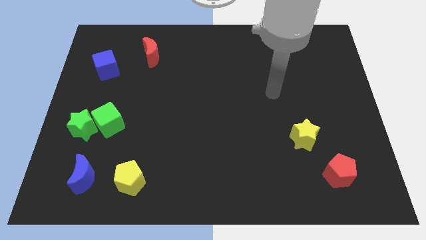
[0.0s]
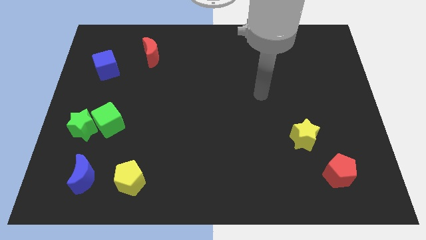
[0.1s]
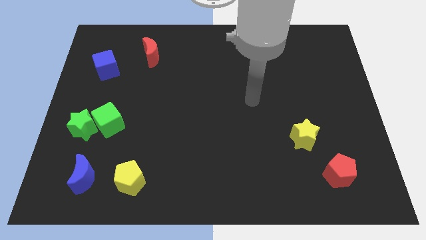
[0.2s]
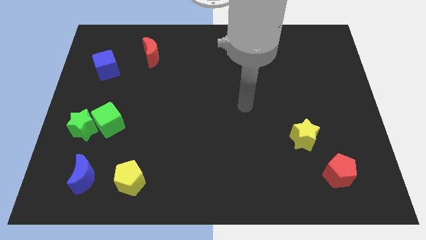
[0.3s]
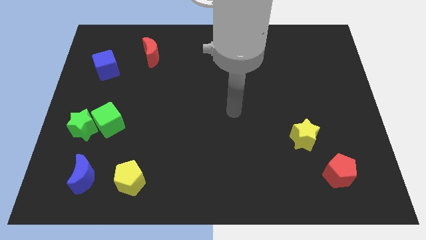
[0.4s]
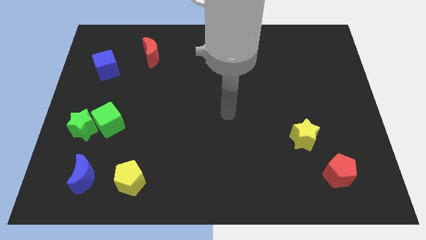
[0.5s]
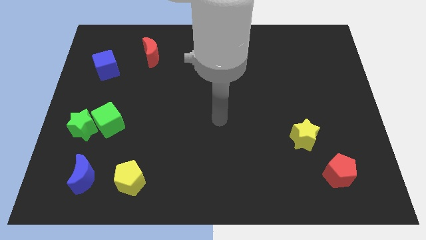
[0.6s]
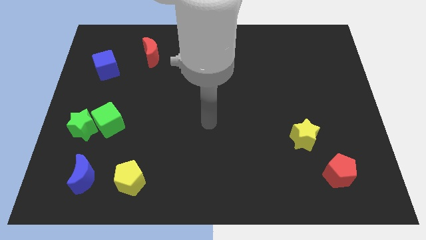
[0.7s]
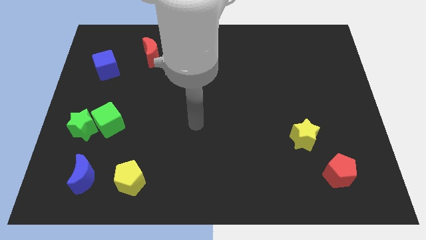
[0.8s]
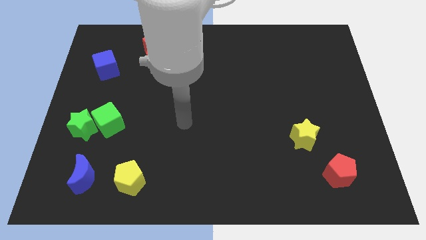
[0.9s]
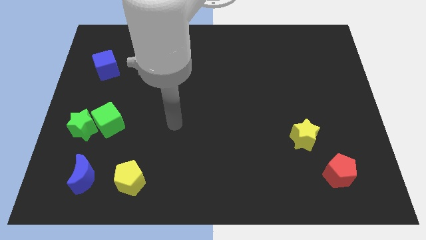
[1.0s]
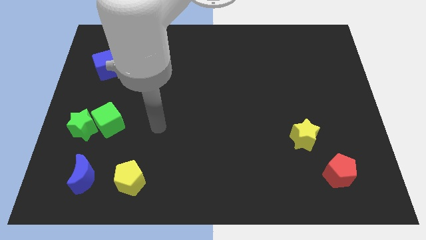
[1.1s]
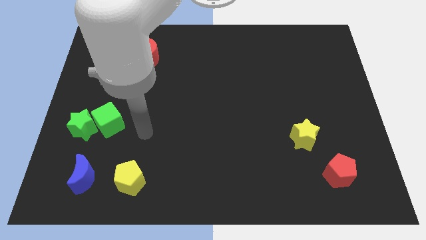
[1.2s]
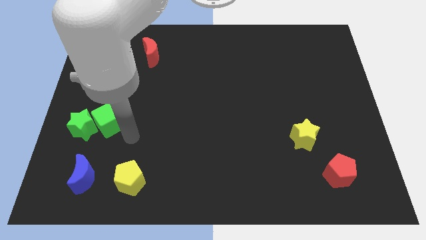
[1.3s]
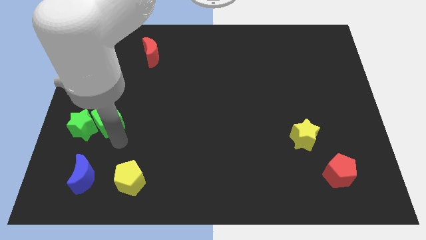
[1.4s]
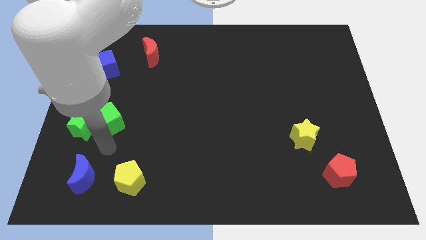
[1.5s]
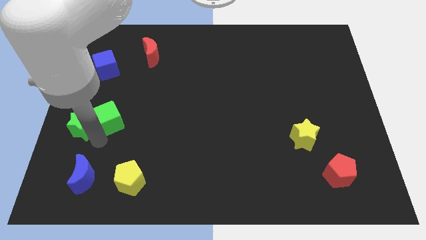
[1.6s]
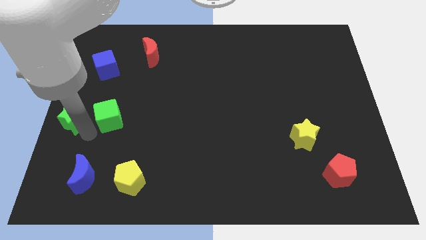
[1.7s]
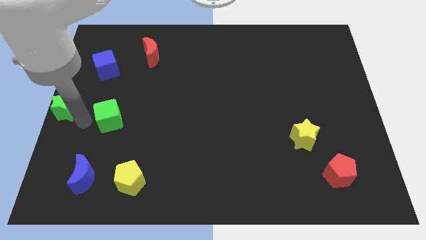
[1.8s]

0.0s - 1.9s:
separate the green cube from the green star

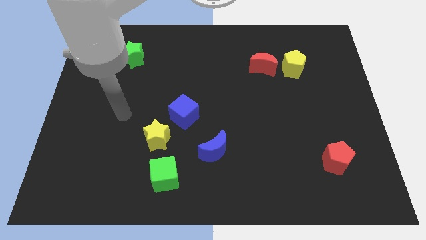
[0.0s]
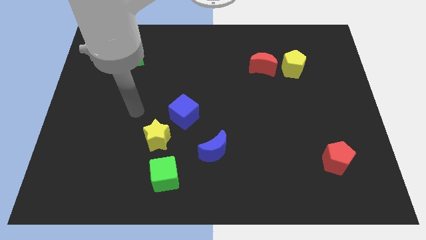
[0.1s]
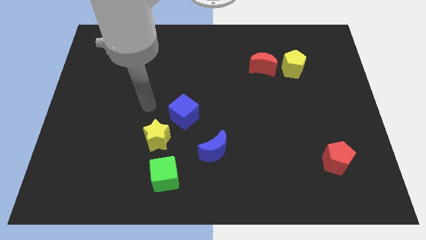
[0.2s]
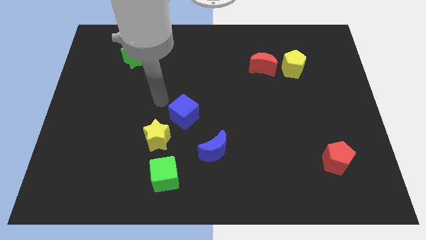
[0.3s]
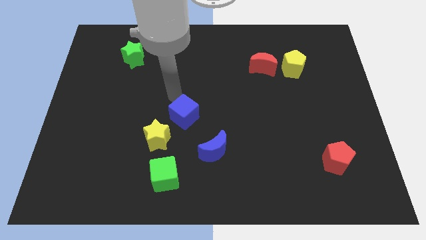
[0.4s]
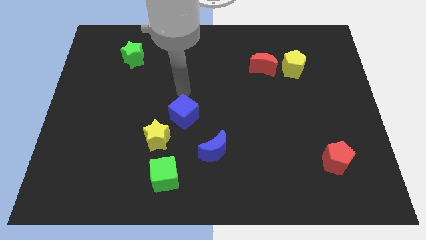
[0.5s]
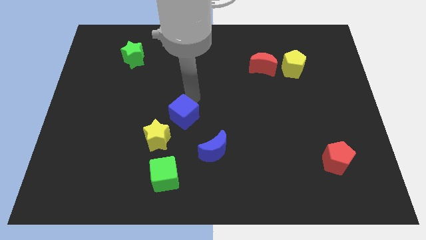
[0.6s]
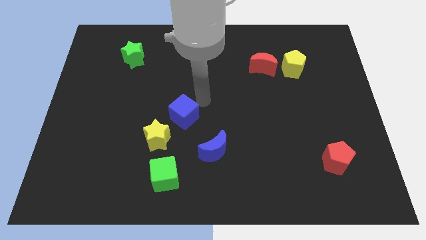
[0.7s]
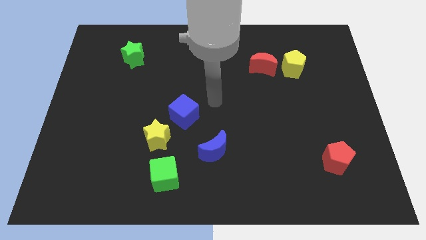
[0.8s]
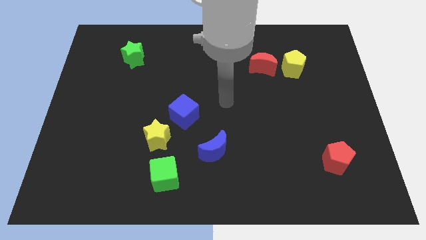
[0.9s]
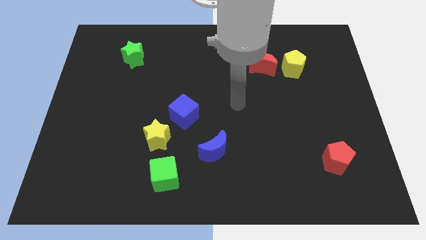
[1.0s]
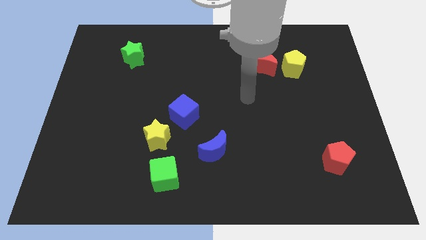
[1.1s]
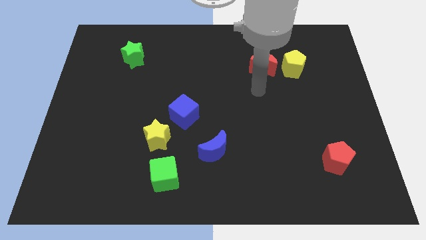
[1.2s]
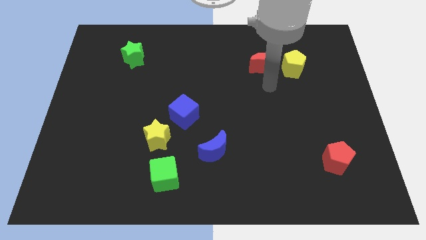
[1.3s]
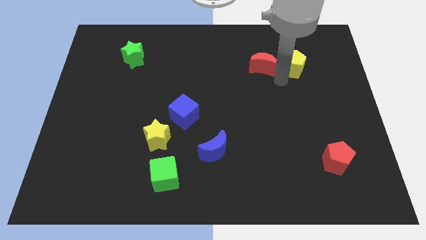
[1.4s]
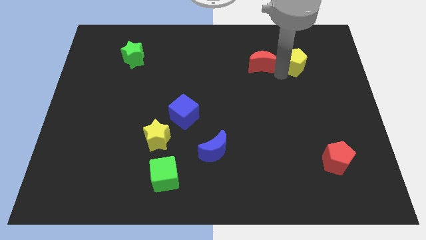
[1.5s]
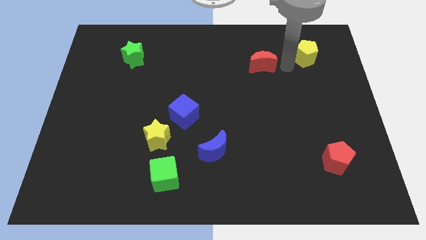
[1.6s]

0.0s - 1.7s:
separate the red moon from the yellow pentagon

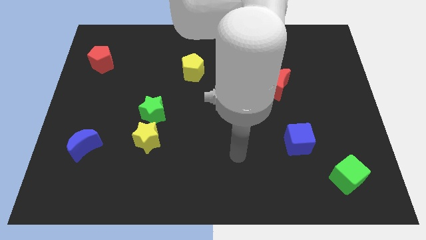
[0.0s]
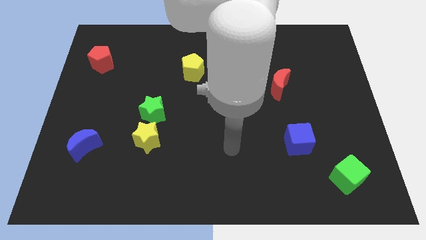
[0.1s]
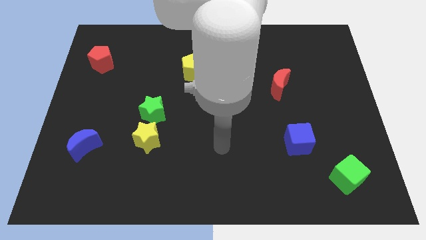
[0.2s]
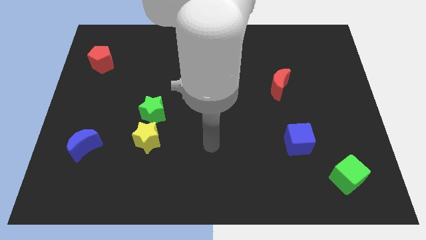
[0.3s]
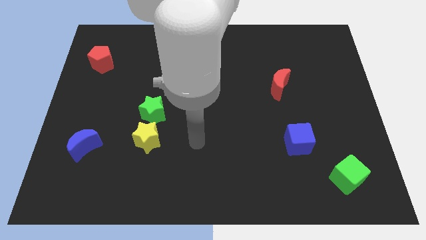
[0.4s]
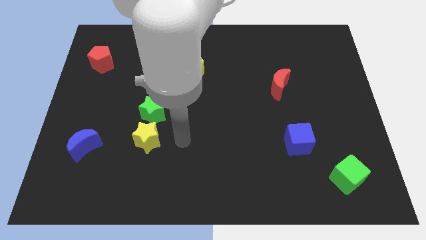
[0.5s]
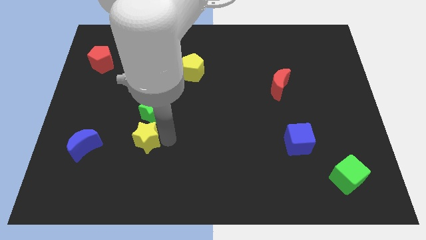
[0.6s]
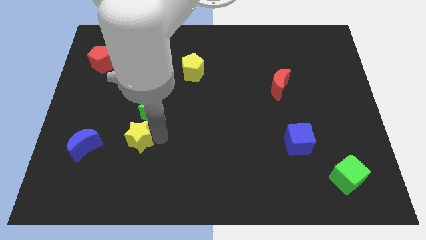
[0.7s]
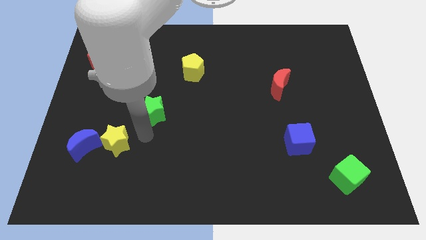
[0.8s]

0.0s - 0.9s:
move the green star away from the yellow star

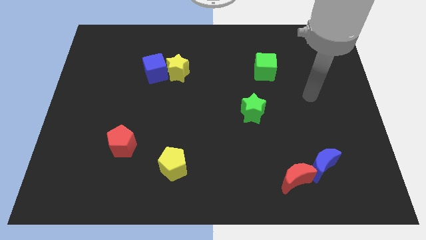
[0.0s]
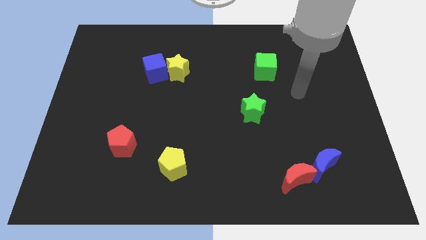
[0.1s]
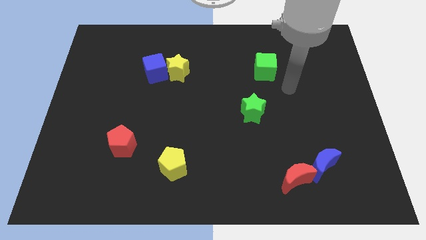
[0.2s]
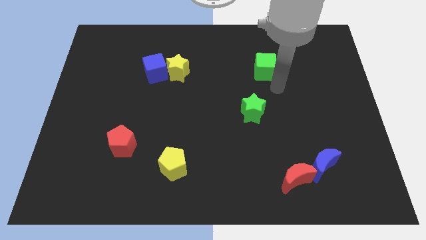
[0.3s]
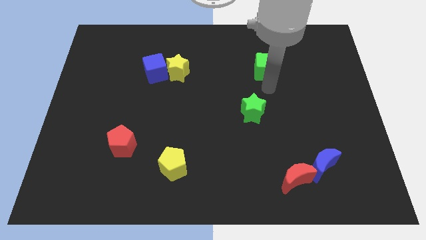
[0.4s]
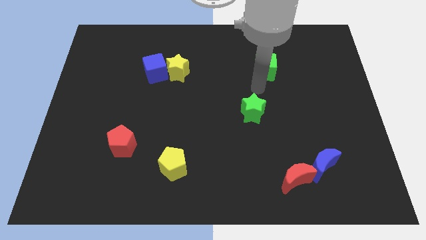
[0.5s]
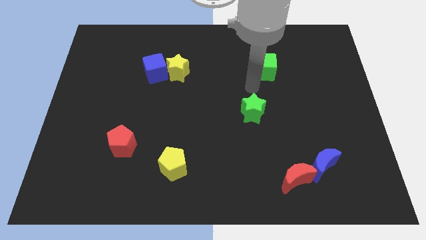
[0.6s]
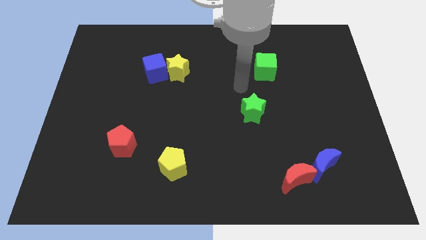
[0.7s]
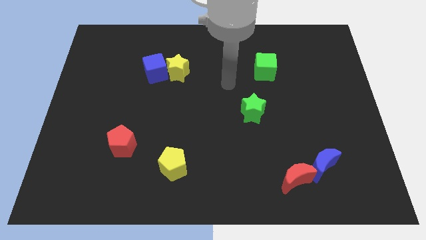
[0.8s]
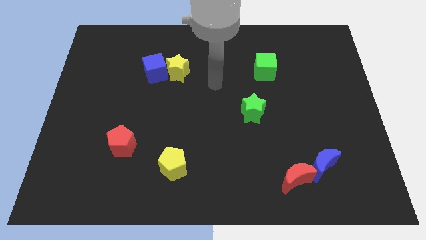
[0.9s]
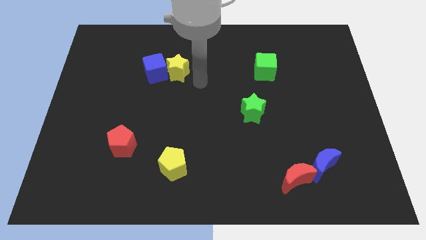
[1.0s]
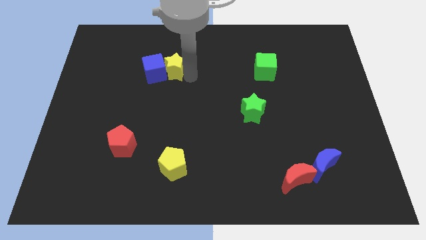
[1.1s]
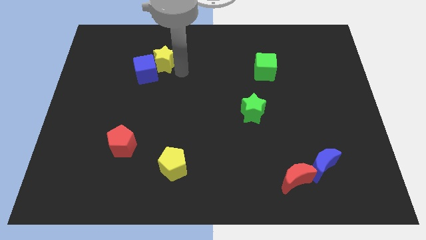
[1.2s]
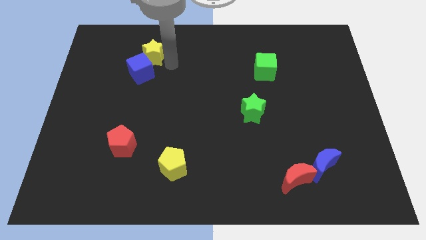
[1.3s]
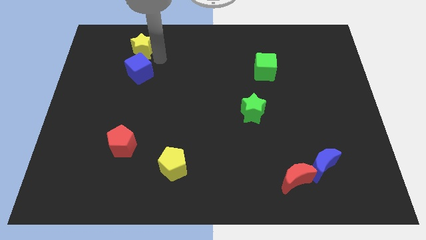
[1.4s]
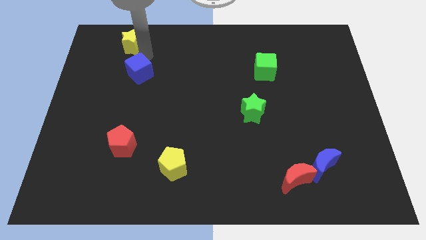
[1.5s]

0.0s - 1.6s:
pull the blue cube apart from the yellow star

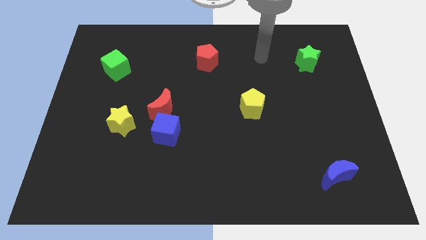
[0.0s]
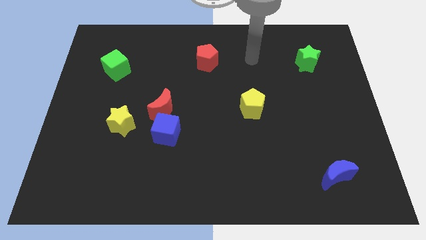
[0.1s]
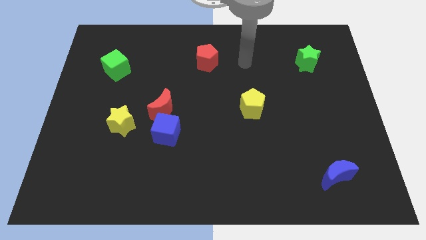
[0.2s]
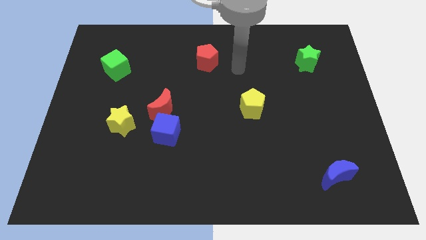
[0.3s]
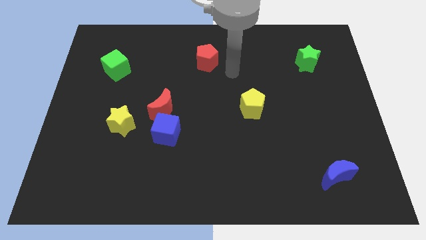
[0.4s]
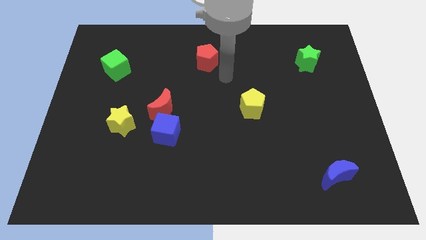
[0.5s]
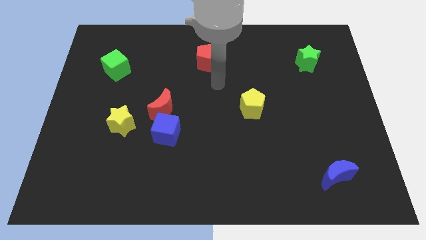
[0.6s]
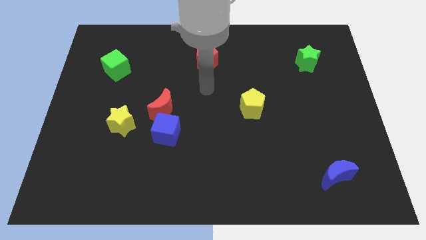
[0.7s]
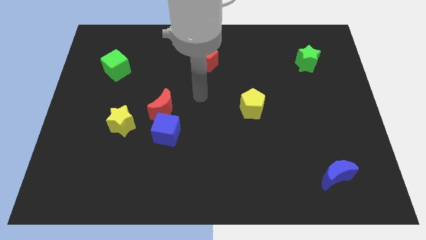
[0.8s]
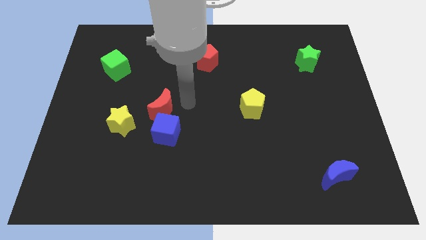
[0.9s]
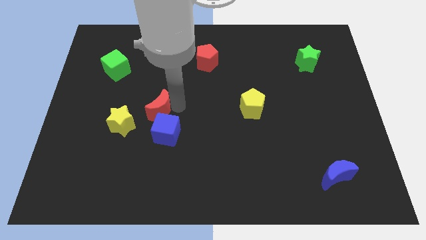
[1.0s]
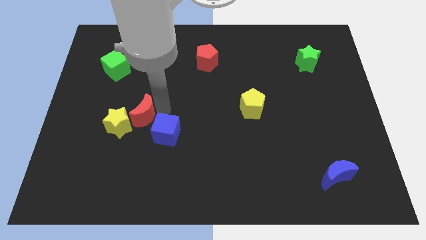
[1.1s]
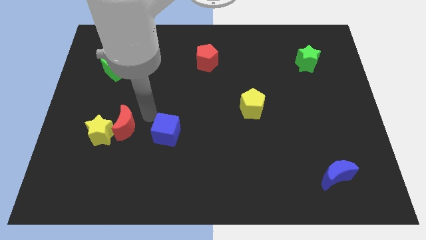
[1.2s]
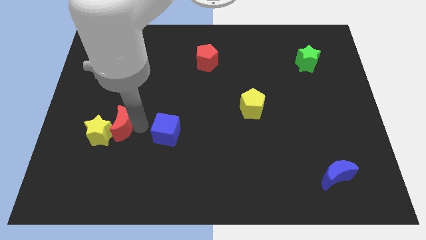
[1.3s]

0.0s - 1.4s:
separate the blue cube from the red moon

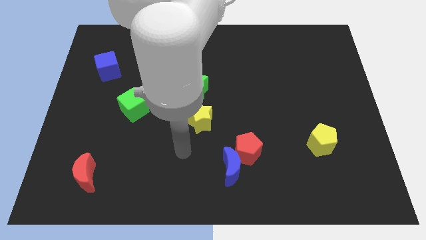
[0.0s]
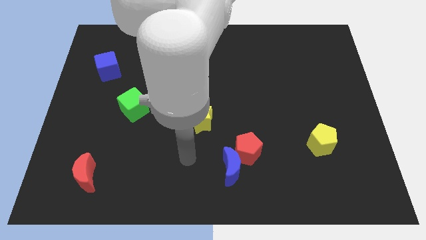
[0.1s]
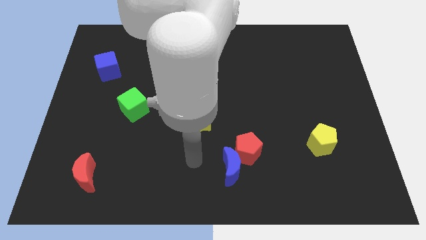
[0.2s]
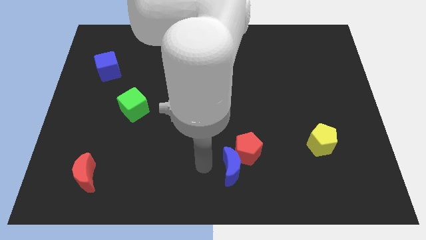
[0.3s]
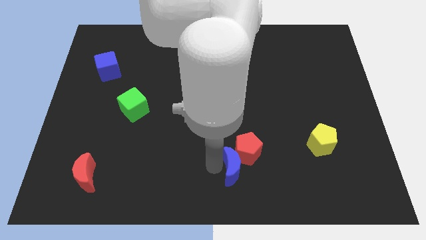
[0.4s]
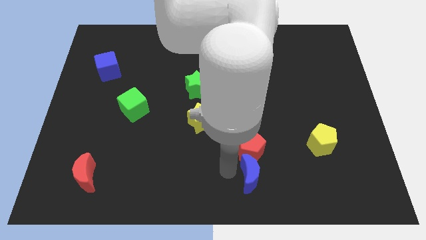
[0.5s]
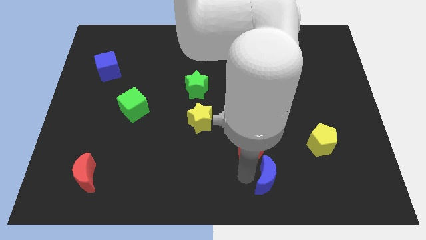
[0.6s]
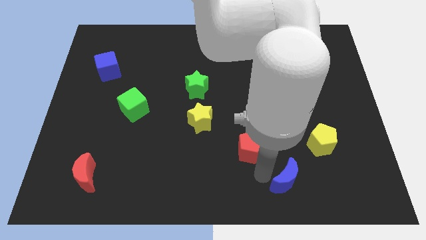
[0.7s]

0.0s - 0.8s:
separate the red pentagon from the blue moon

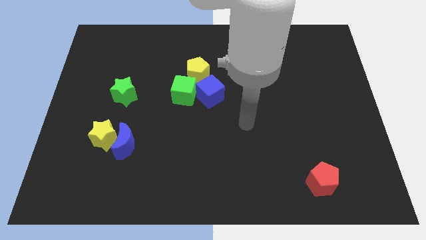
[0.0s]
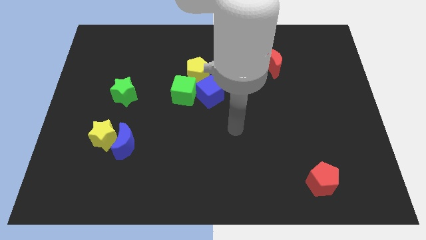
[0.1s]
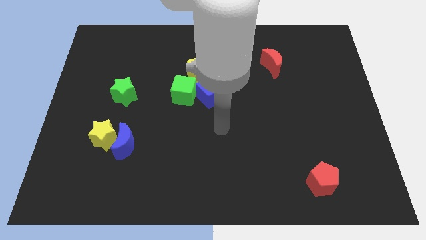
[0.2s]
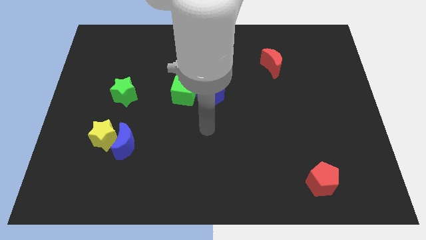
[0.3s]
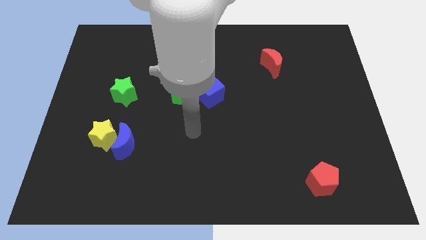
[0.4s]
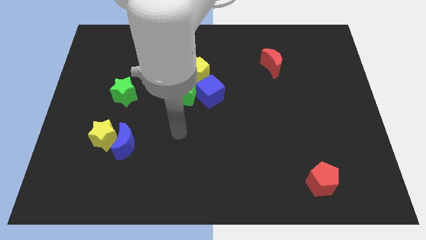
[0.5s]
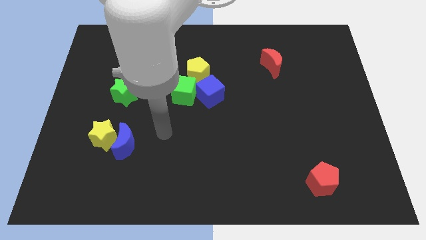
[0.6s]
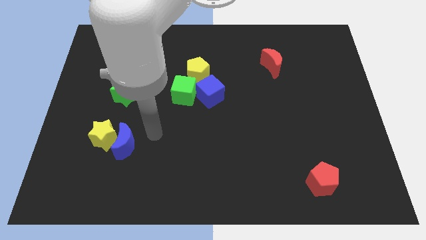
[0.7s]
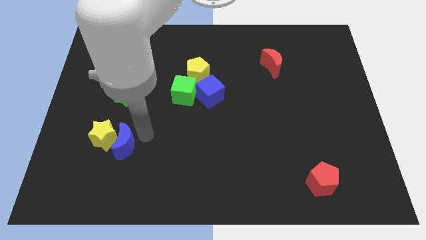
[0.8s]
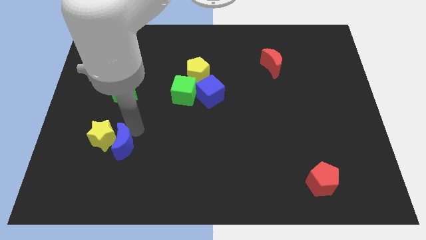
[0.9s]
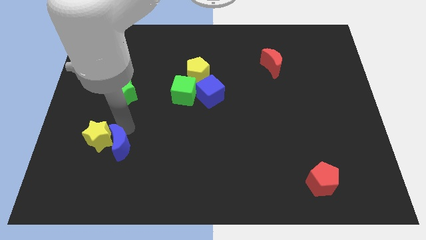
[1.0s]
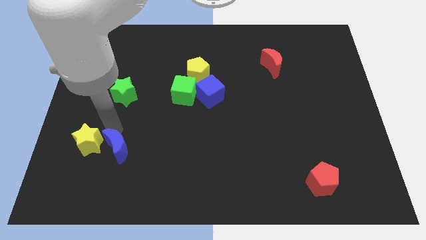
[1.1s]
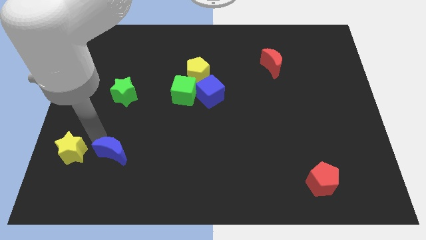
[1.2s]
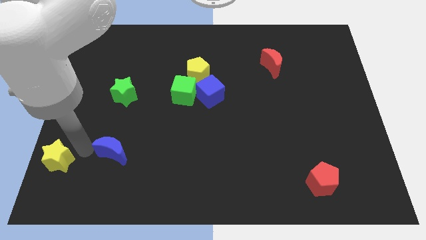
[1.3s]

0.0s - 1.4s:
move the blue moon away from the yellow star
